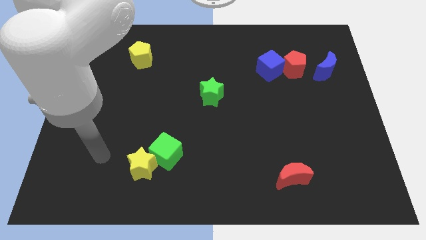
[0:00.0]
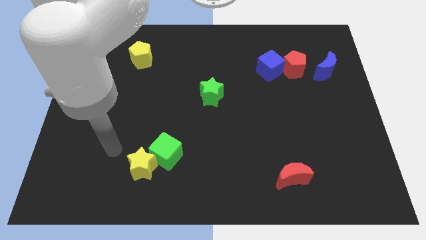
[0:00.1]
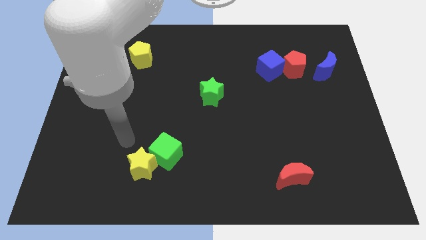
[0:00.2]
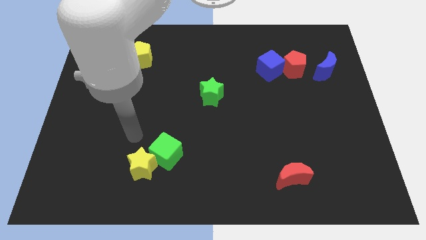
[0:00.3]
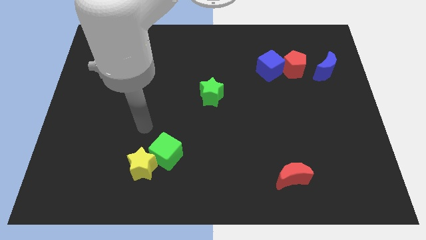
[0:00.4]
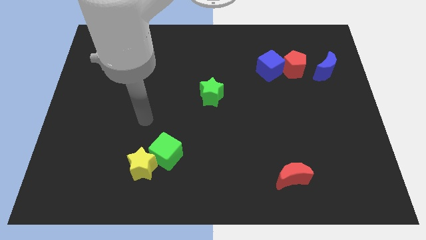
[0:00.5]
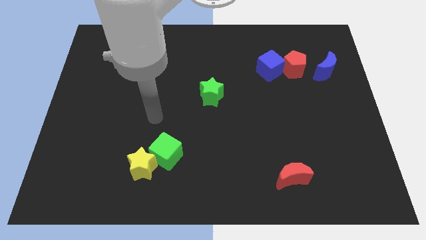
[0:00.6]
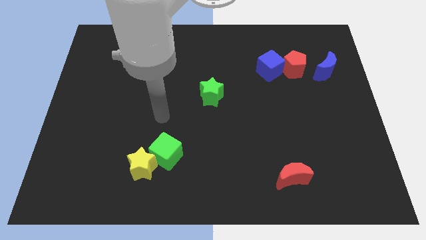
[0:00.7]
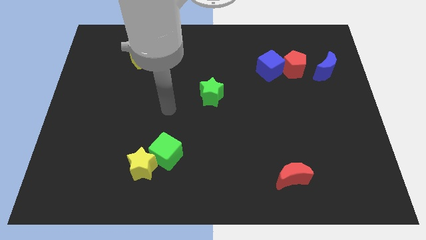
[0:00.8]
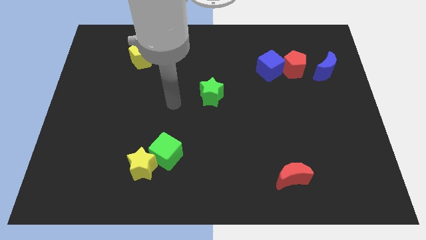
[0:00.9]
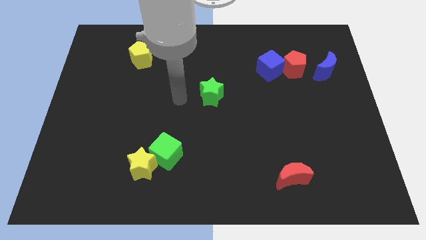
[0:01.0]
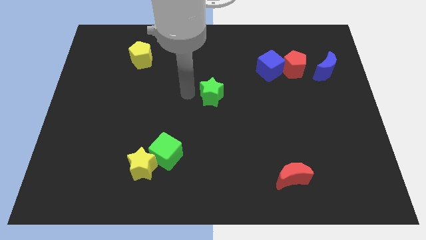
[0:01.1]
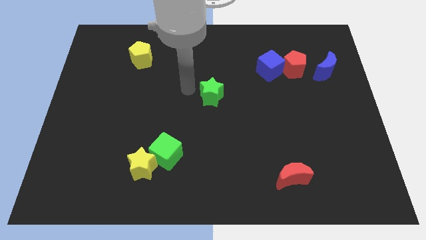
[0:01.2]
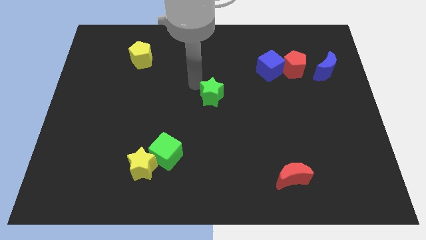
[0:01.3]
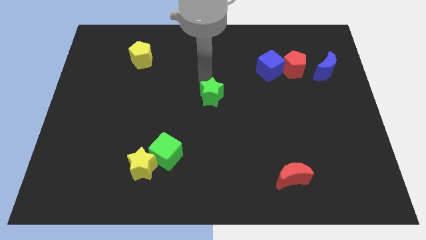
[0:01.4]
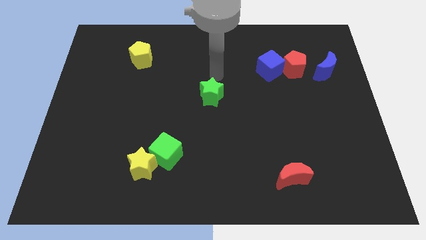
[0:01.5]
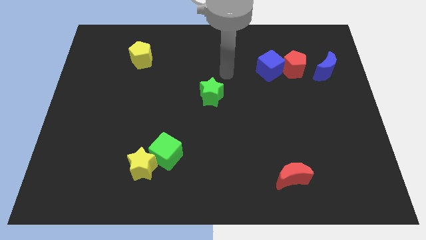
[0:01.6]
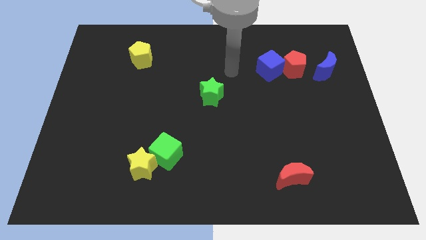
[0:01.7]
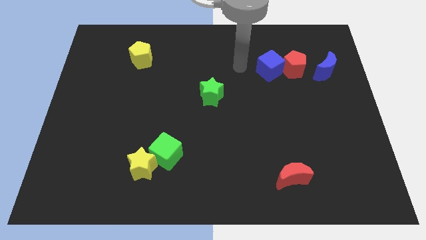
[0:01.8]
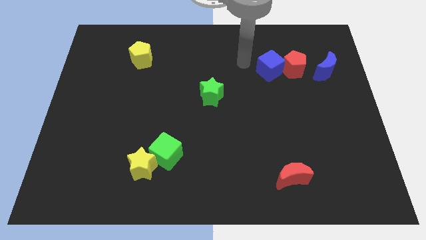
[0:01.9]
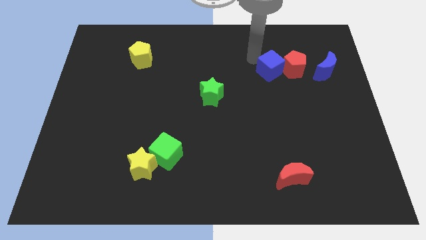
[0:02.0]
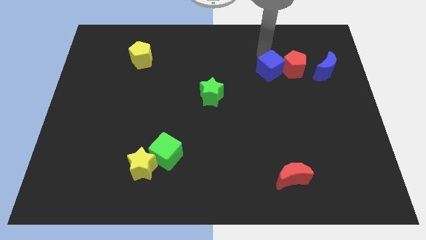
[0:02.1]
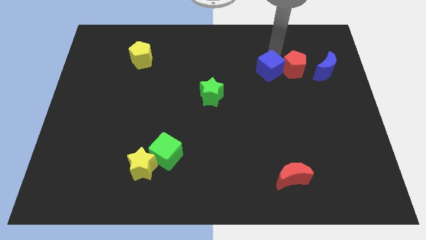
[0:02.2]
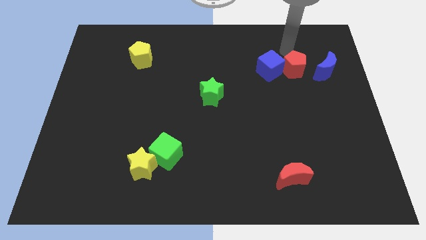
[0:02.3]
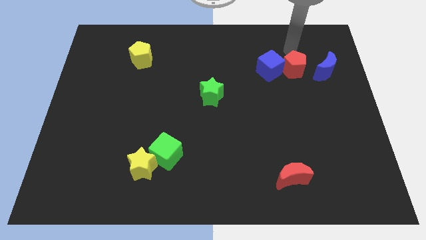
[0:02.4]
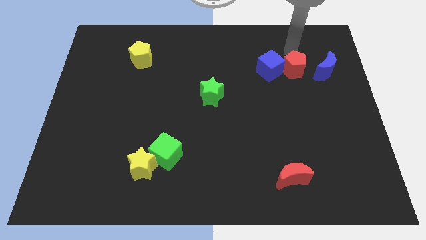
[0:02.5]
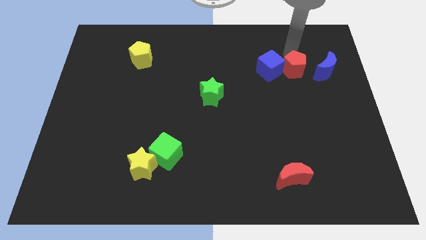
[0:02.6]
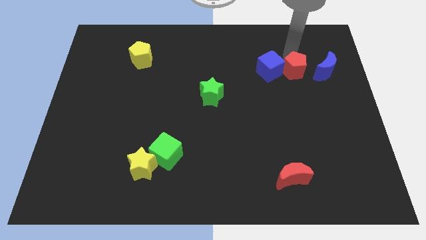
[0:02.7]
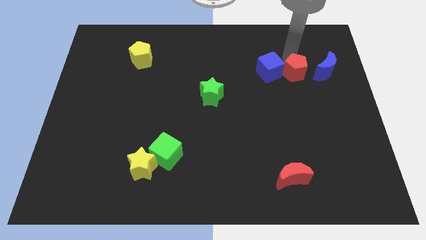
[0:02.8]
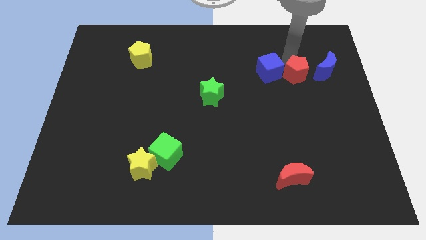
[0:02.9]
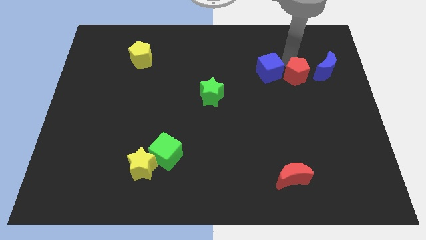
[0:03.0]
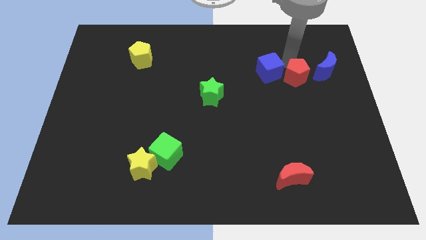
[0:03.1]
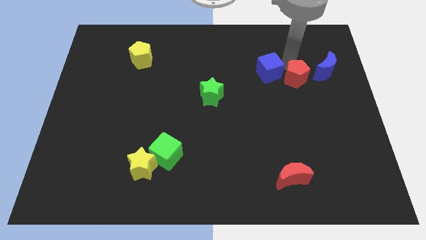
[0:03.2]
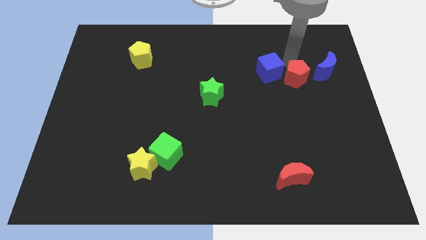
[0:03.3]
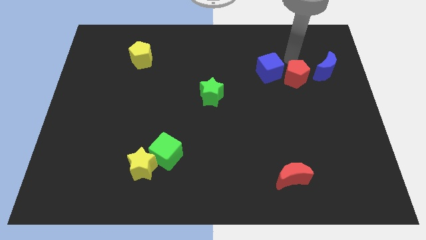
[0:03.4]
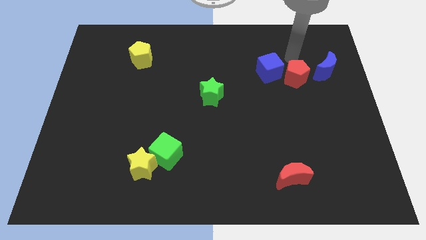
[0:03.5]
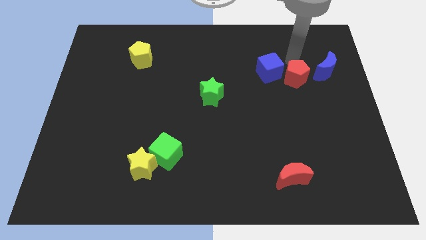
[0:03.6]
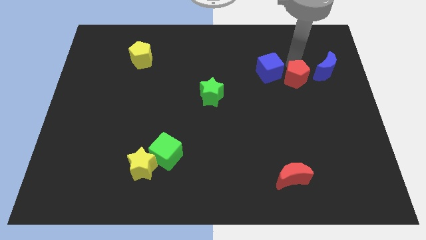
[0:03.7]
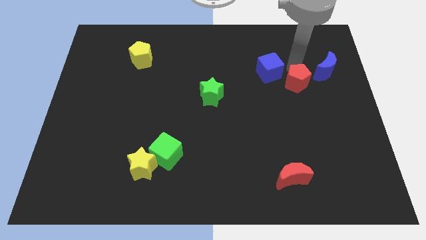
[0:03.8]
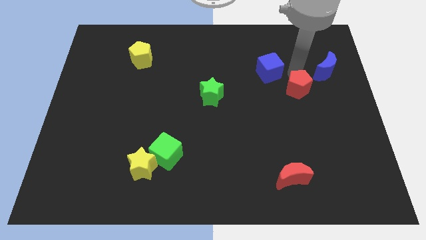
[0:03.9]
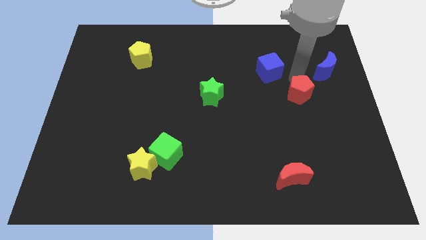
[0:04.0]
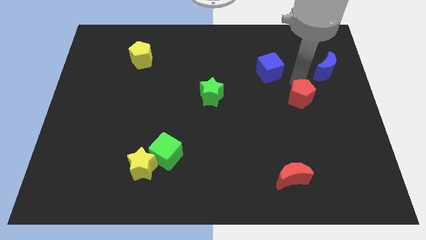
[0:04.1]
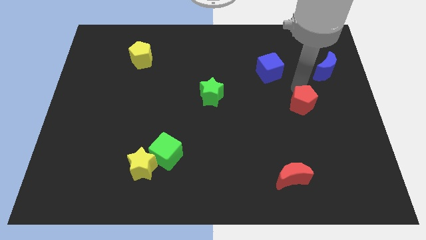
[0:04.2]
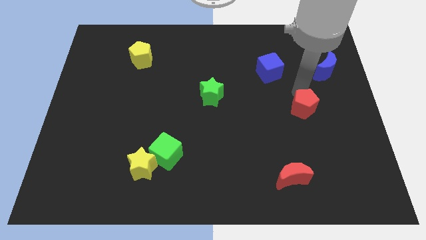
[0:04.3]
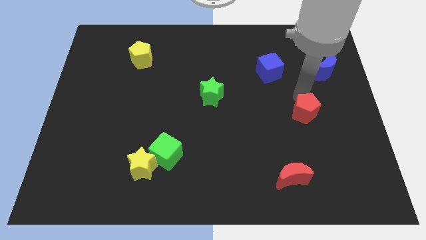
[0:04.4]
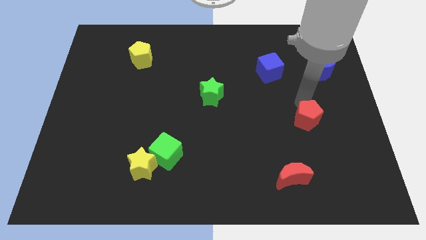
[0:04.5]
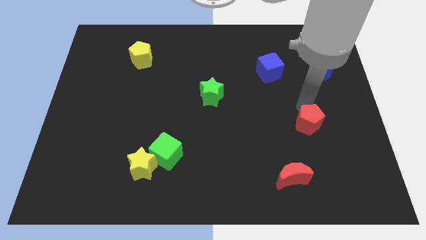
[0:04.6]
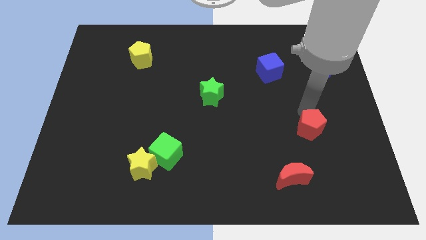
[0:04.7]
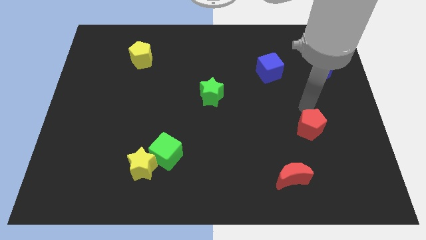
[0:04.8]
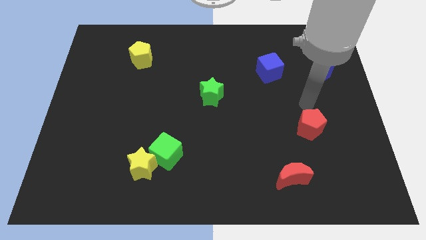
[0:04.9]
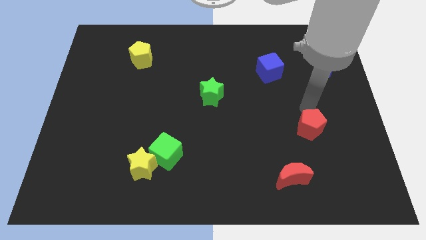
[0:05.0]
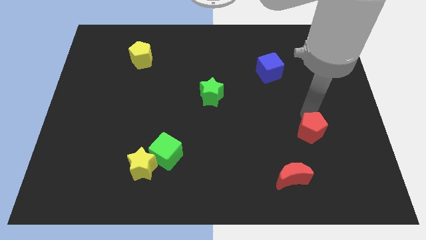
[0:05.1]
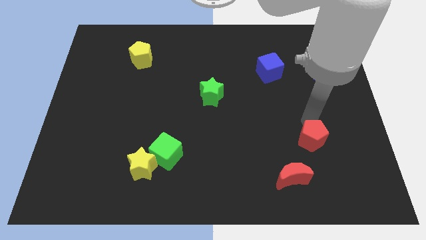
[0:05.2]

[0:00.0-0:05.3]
push the red pentagon diagonally up and to the right of the red moon

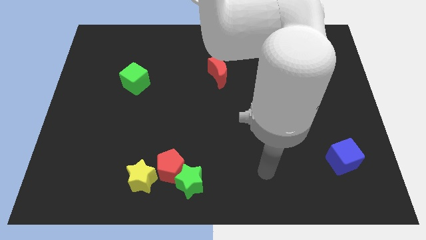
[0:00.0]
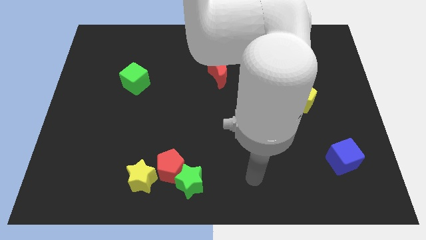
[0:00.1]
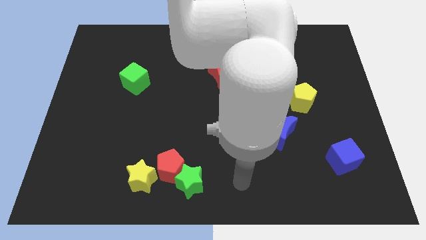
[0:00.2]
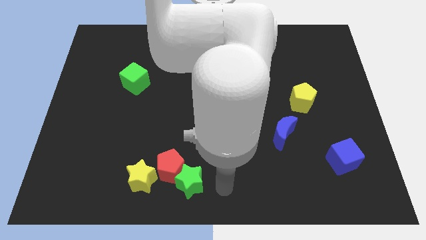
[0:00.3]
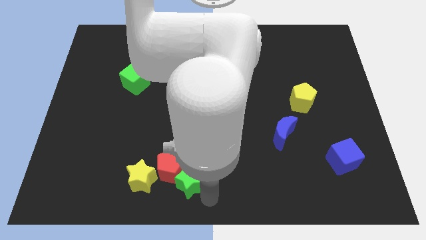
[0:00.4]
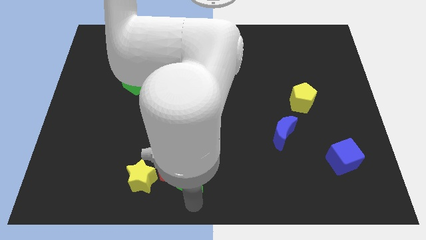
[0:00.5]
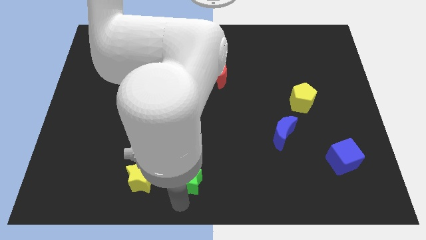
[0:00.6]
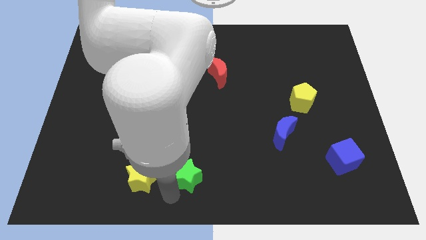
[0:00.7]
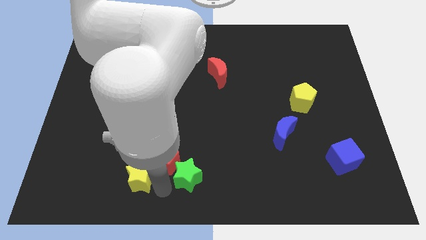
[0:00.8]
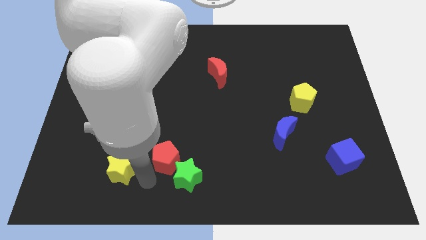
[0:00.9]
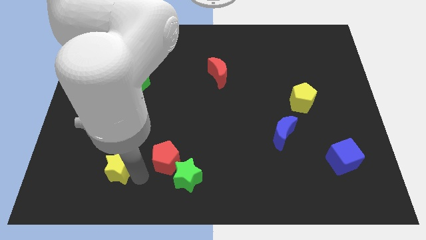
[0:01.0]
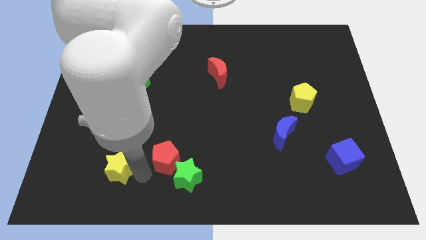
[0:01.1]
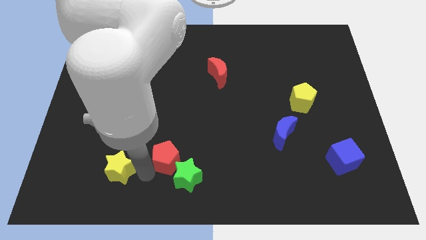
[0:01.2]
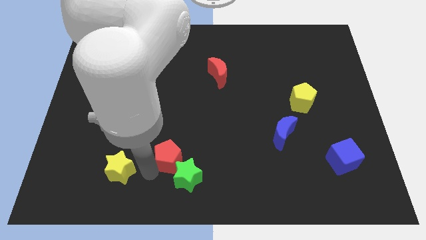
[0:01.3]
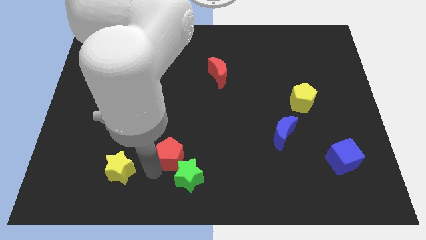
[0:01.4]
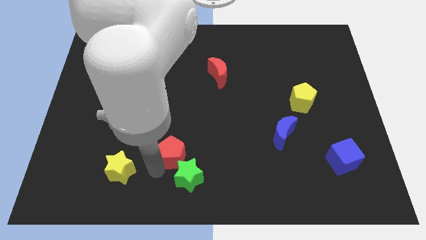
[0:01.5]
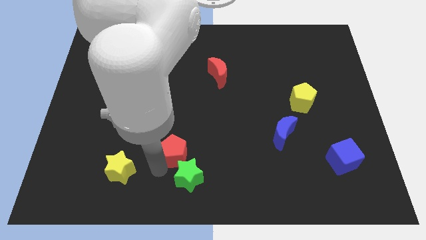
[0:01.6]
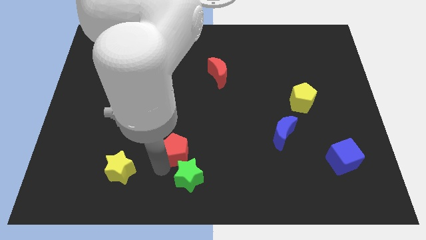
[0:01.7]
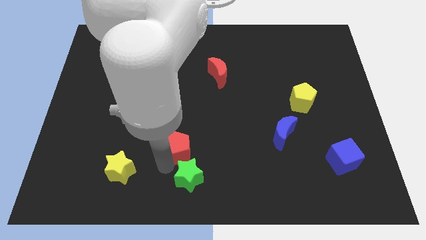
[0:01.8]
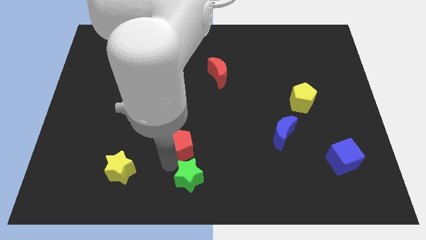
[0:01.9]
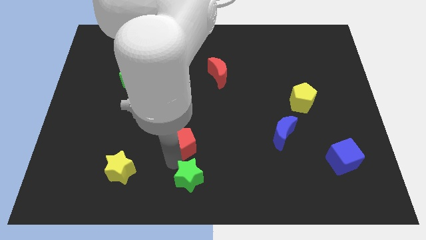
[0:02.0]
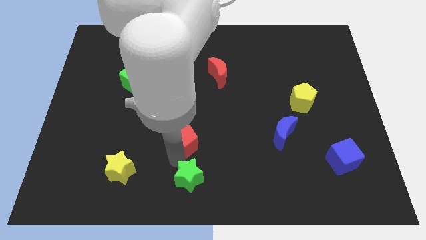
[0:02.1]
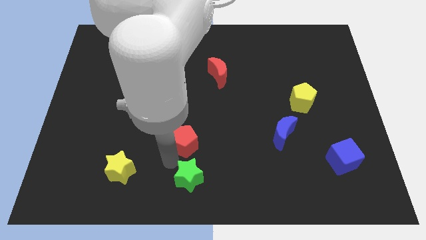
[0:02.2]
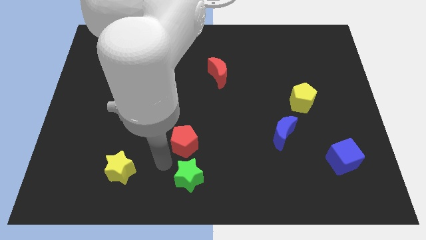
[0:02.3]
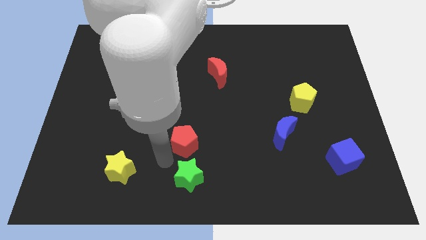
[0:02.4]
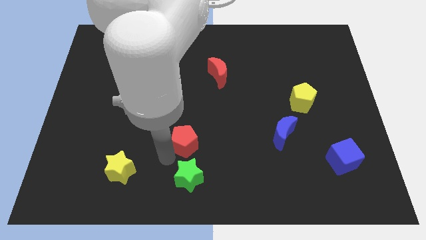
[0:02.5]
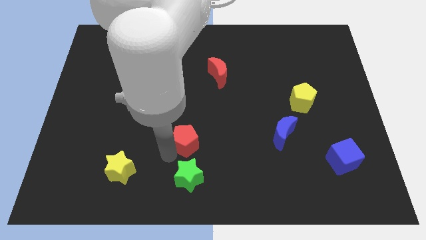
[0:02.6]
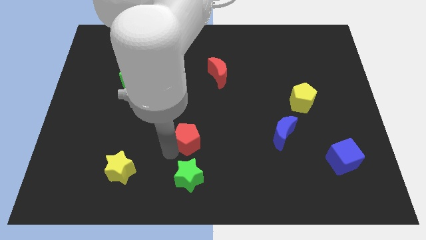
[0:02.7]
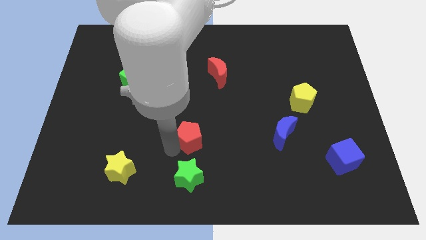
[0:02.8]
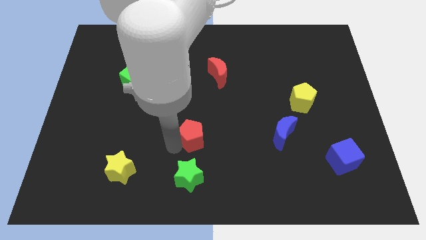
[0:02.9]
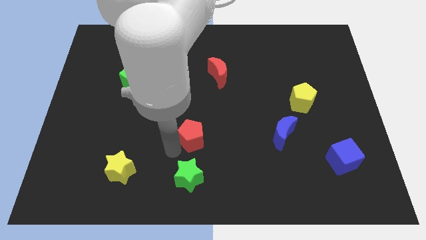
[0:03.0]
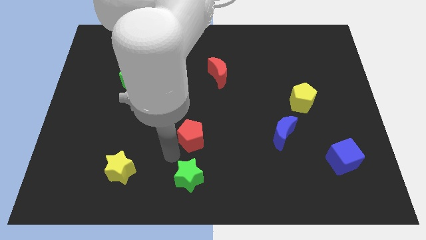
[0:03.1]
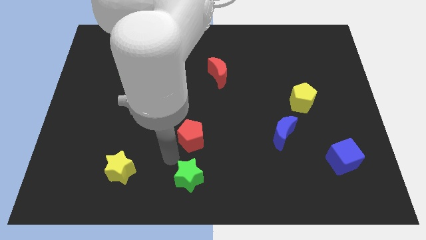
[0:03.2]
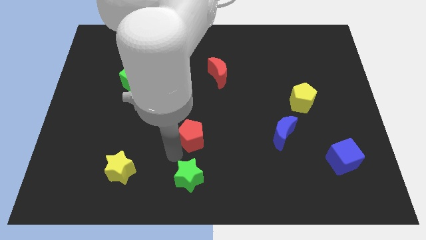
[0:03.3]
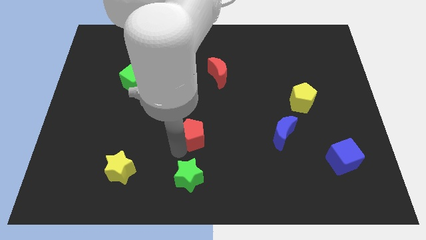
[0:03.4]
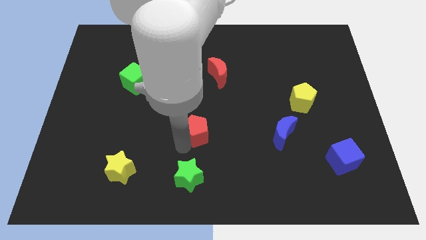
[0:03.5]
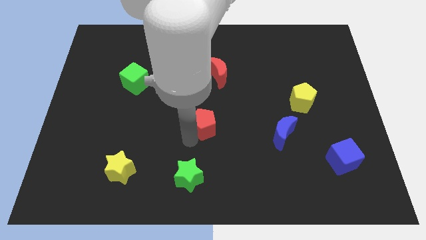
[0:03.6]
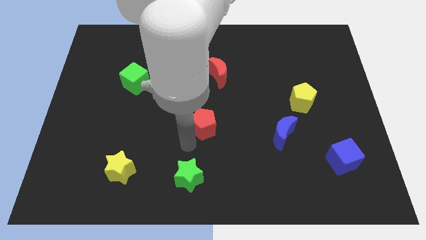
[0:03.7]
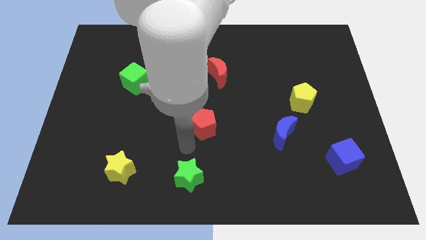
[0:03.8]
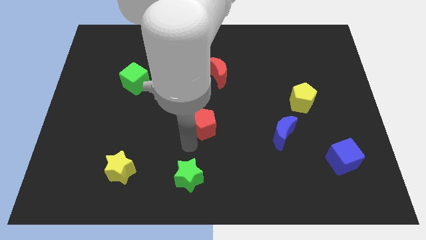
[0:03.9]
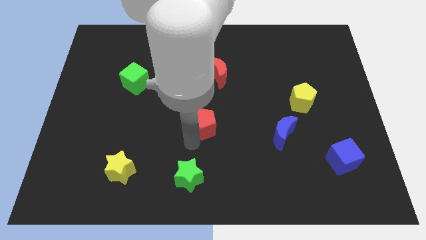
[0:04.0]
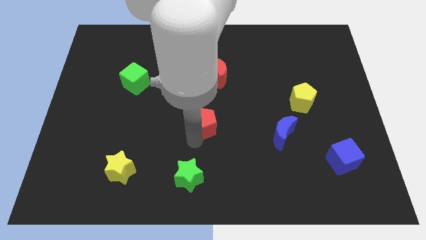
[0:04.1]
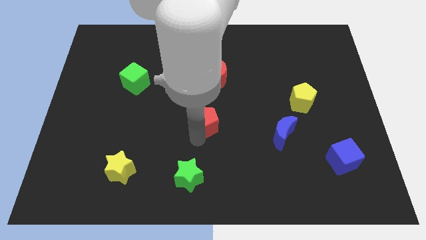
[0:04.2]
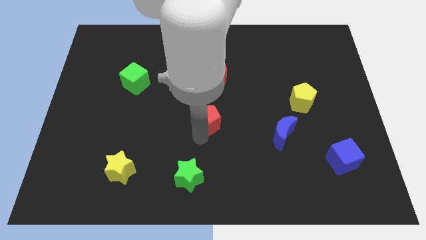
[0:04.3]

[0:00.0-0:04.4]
push the red pentagon to the bottom of the red moon
